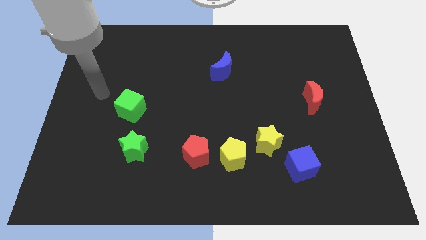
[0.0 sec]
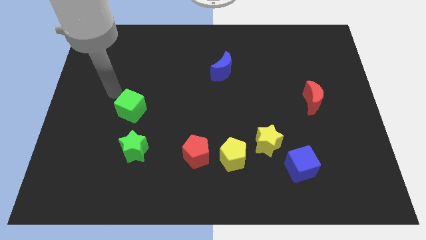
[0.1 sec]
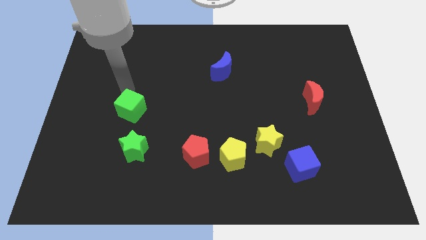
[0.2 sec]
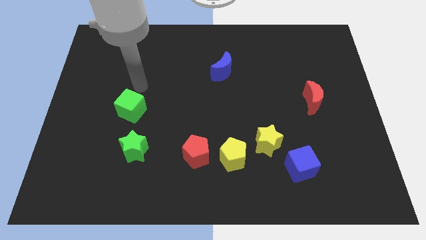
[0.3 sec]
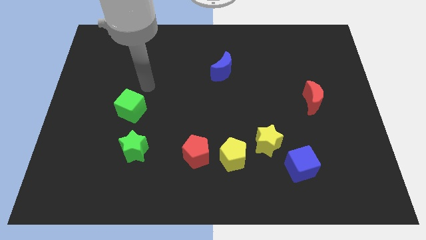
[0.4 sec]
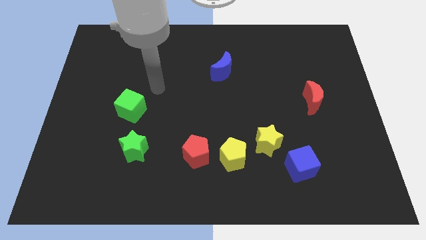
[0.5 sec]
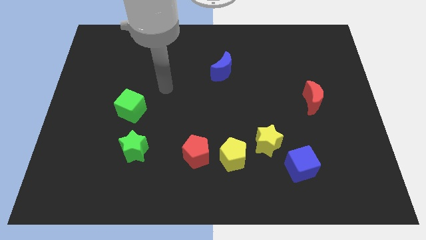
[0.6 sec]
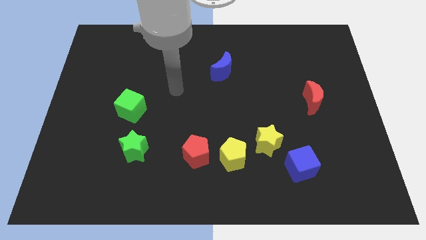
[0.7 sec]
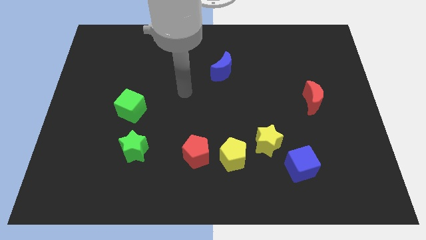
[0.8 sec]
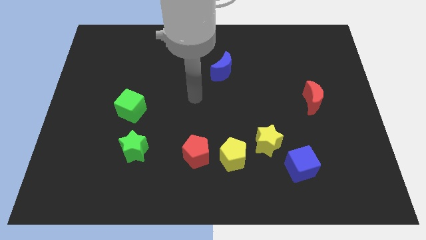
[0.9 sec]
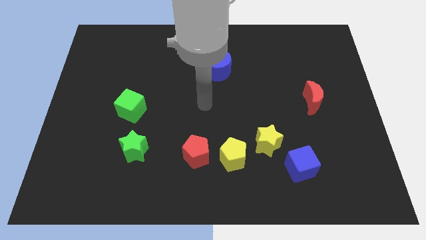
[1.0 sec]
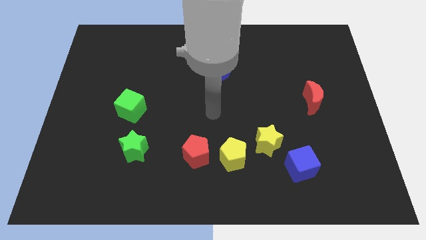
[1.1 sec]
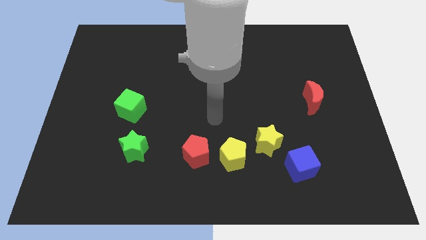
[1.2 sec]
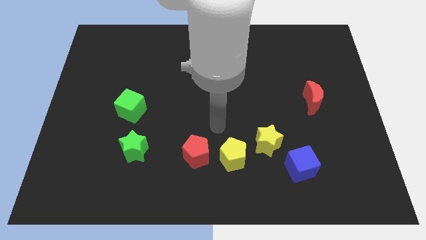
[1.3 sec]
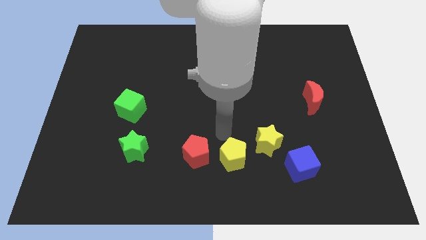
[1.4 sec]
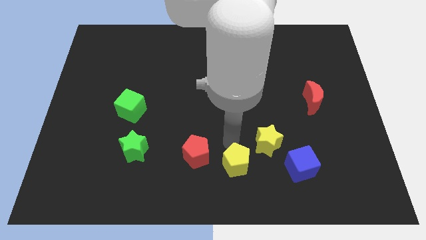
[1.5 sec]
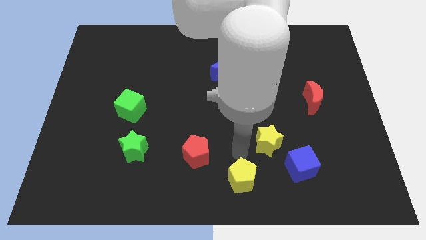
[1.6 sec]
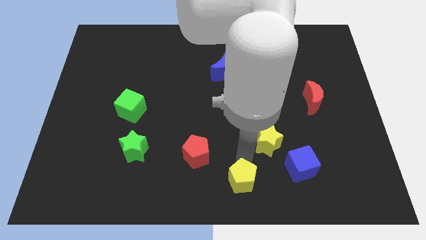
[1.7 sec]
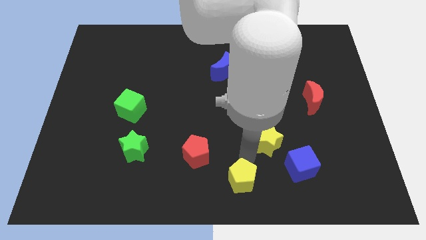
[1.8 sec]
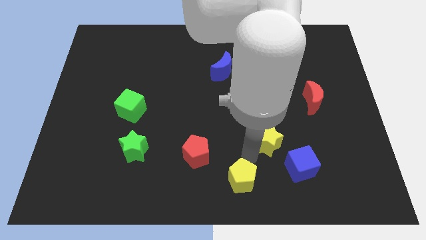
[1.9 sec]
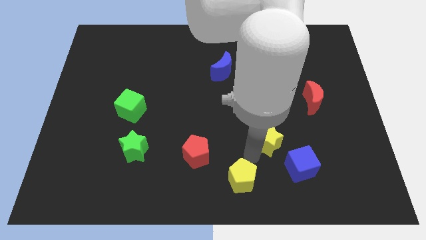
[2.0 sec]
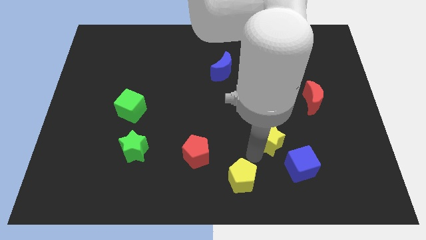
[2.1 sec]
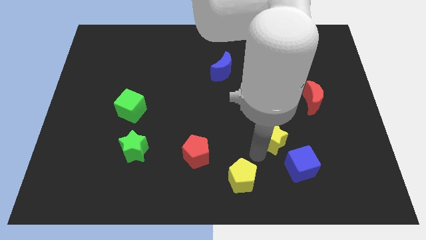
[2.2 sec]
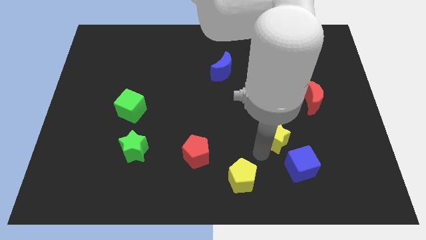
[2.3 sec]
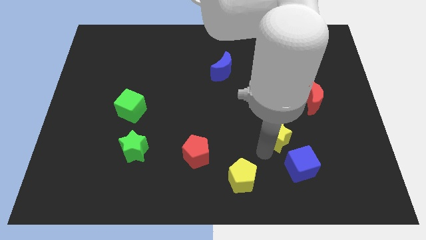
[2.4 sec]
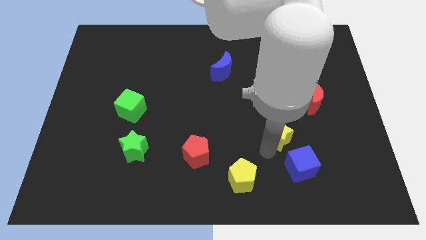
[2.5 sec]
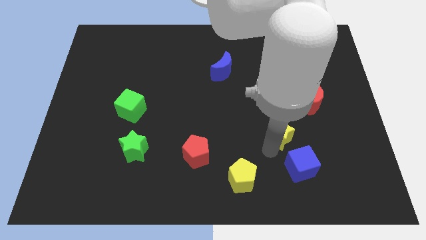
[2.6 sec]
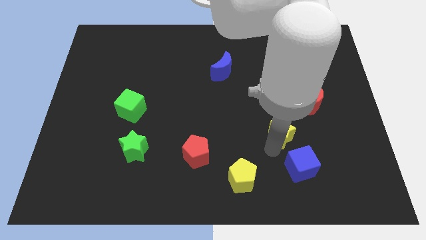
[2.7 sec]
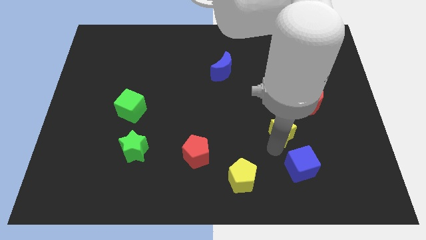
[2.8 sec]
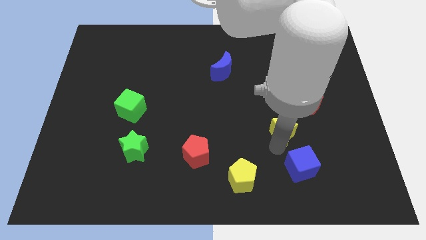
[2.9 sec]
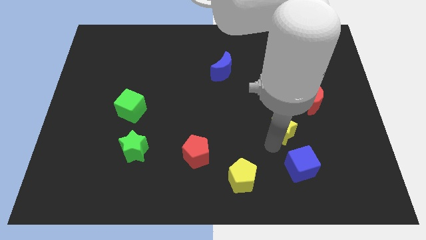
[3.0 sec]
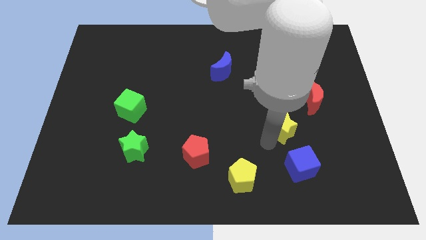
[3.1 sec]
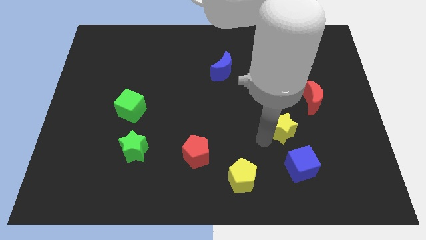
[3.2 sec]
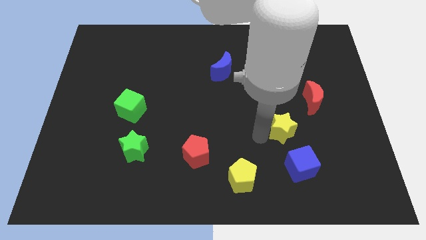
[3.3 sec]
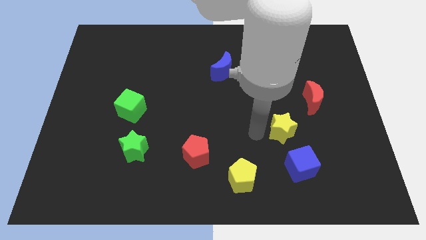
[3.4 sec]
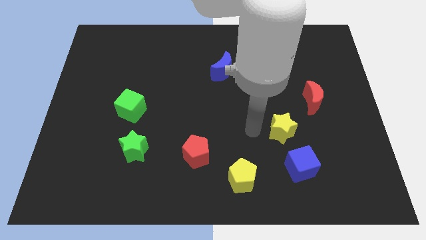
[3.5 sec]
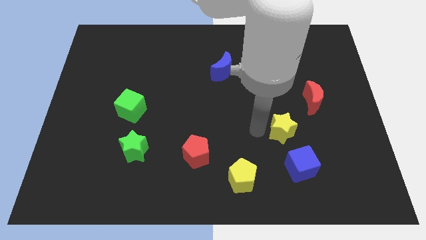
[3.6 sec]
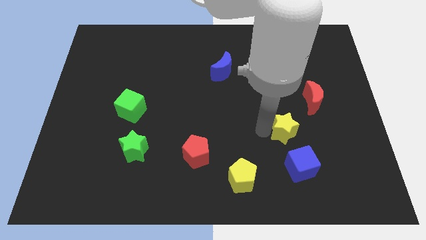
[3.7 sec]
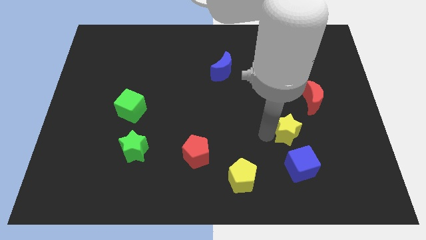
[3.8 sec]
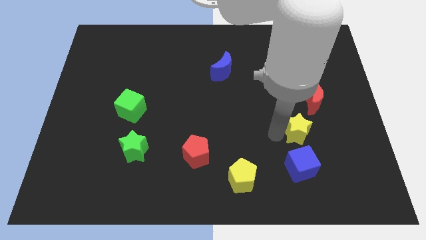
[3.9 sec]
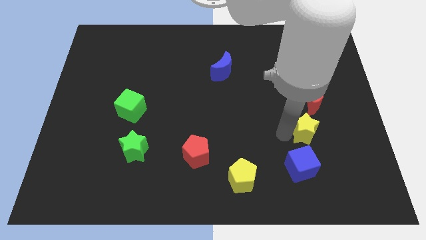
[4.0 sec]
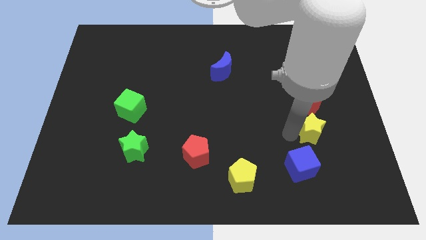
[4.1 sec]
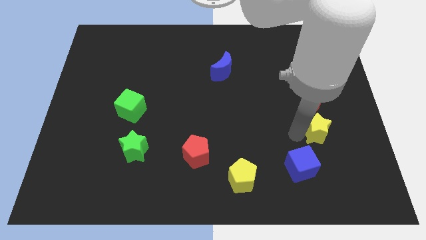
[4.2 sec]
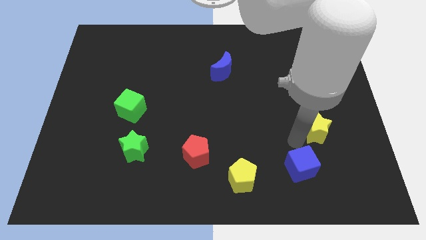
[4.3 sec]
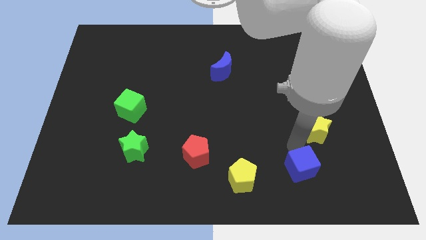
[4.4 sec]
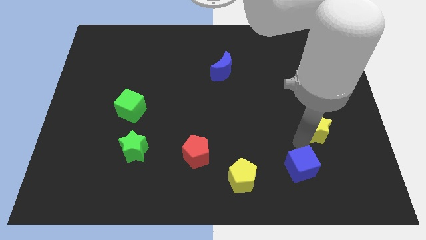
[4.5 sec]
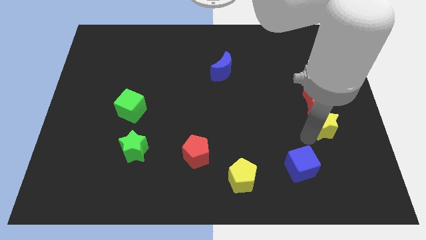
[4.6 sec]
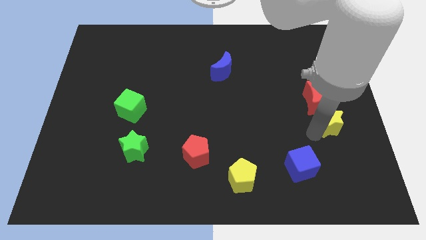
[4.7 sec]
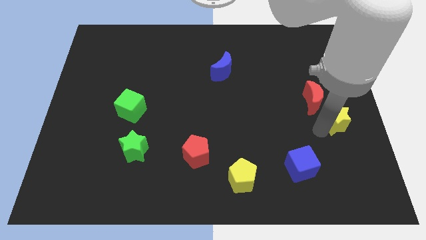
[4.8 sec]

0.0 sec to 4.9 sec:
put the yellow star to the right side of the board

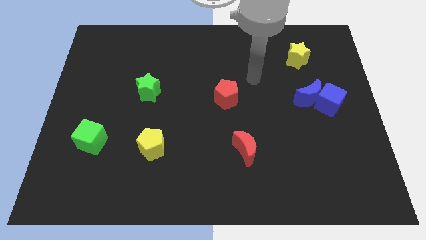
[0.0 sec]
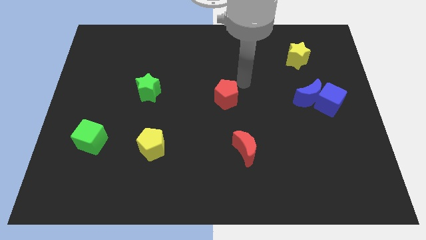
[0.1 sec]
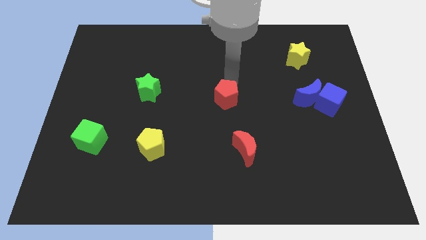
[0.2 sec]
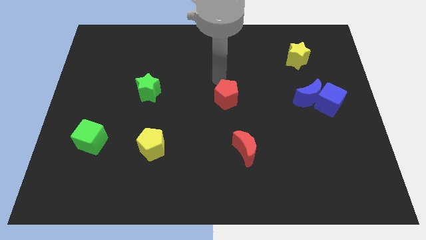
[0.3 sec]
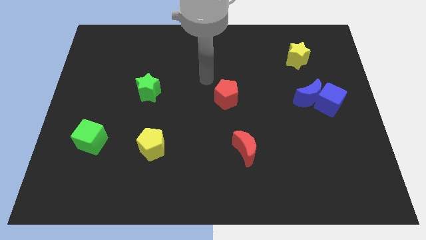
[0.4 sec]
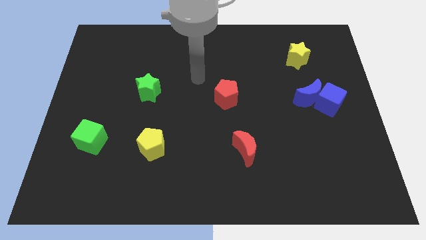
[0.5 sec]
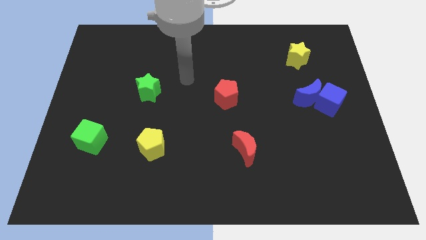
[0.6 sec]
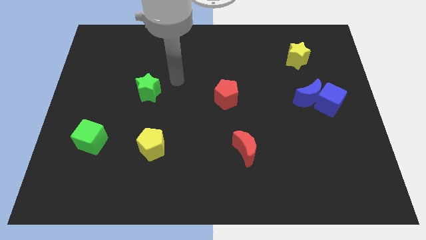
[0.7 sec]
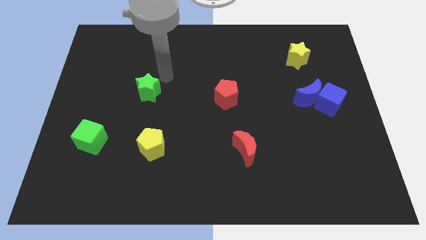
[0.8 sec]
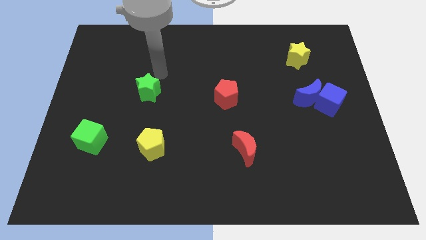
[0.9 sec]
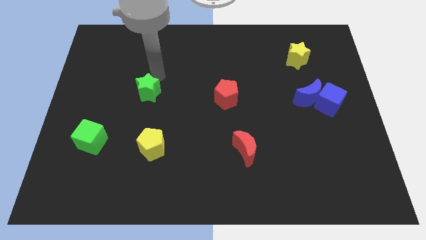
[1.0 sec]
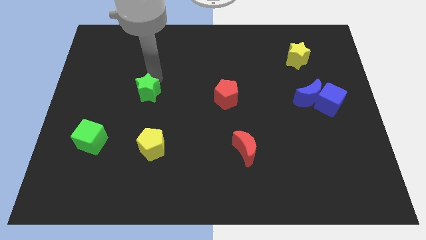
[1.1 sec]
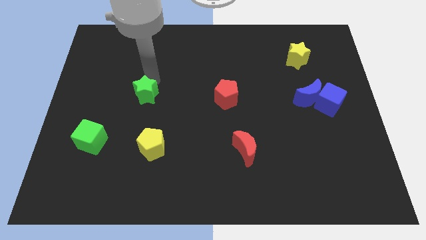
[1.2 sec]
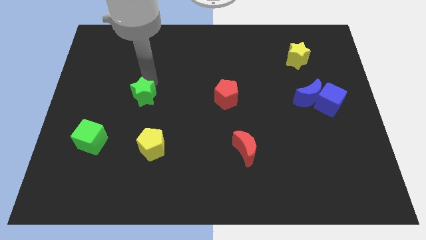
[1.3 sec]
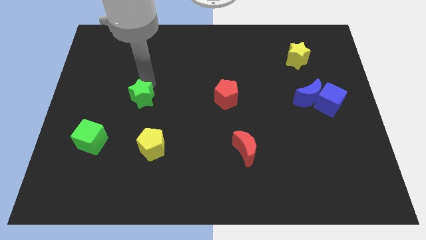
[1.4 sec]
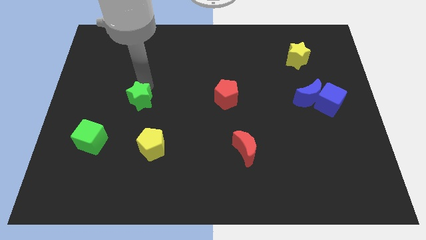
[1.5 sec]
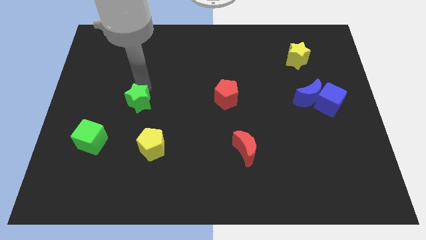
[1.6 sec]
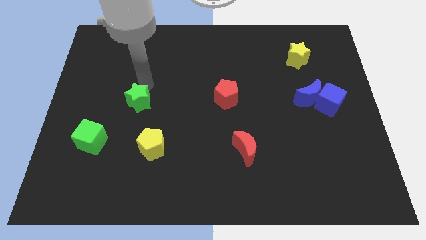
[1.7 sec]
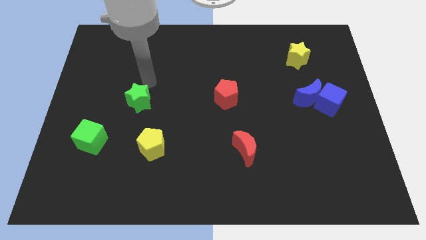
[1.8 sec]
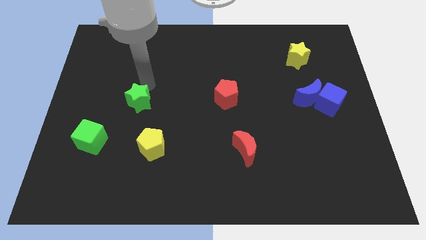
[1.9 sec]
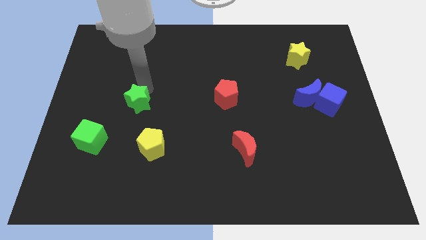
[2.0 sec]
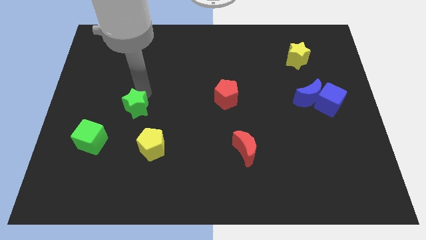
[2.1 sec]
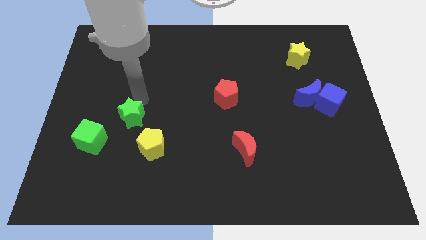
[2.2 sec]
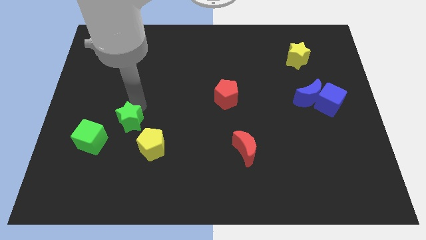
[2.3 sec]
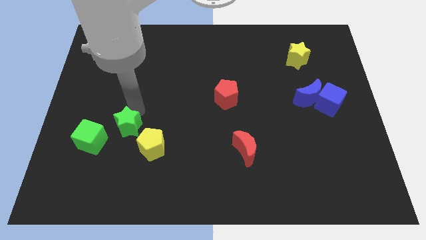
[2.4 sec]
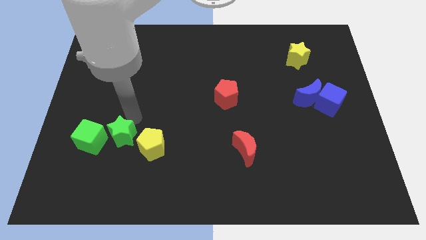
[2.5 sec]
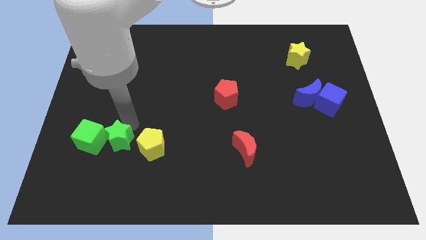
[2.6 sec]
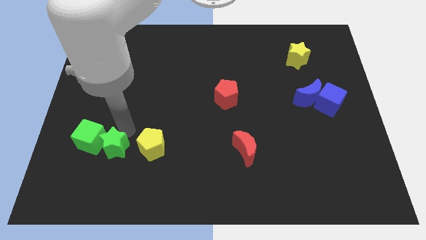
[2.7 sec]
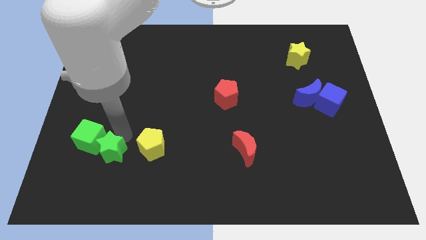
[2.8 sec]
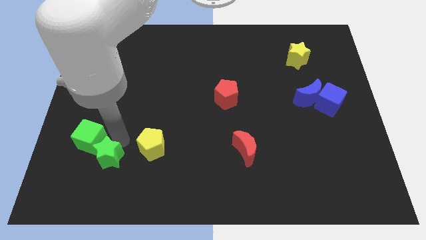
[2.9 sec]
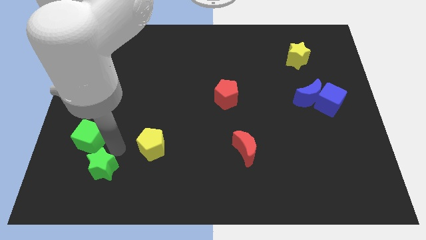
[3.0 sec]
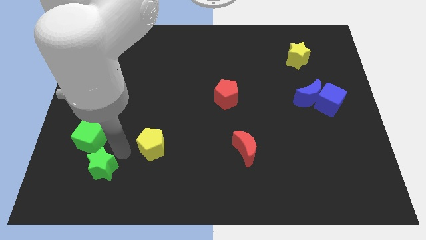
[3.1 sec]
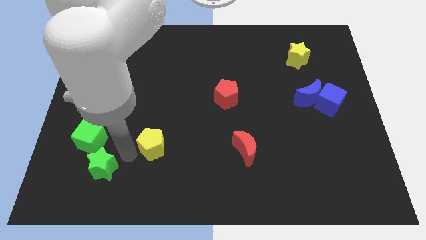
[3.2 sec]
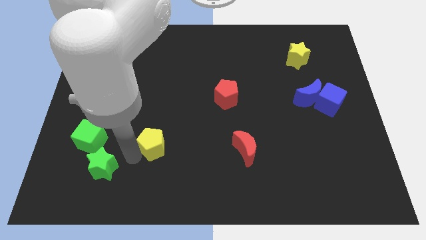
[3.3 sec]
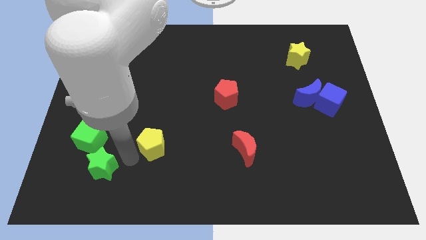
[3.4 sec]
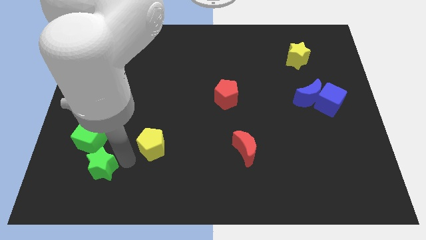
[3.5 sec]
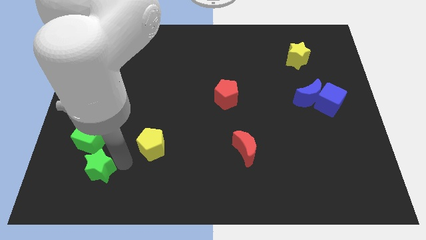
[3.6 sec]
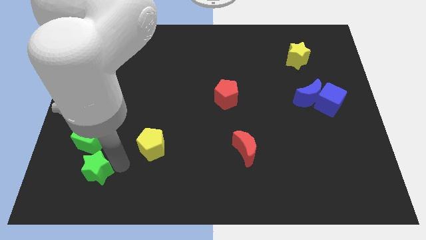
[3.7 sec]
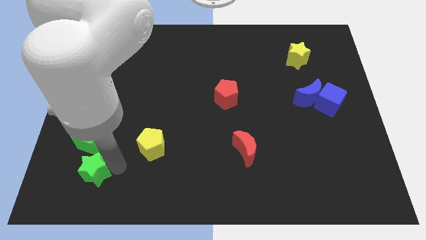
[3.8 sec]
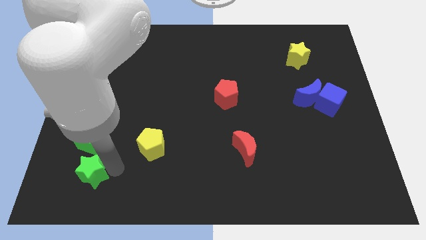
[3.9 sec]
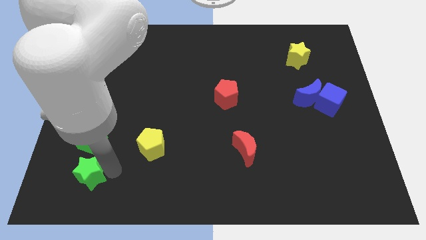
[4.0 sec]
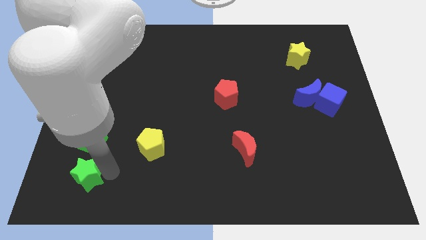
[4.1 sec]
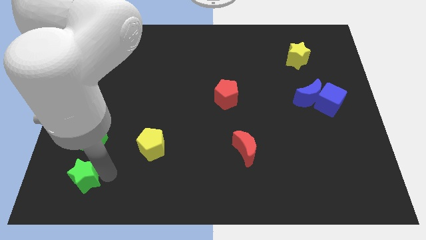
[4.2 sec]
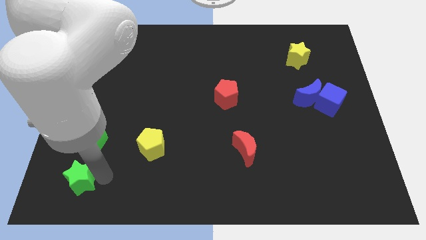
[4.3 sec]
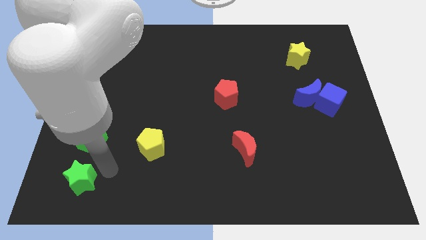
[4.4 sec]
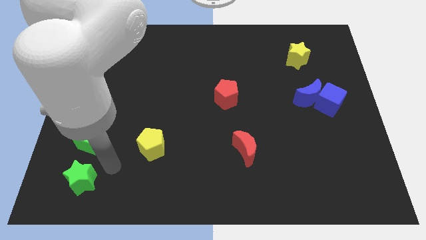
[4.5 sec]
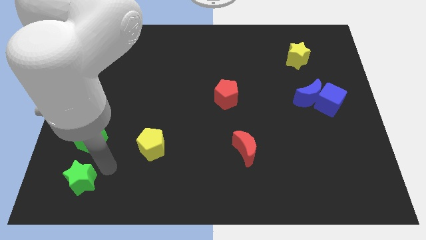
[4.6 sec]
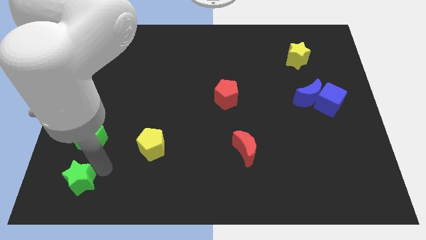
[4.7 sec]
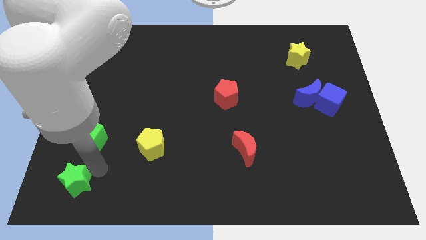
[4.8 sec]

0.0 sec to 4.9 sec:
push the green star to the bottom left
